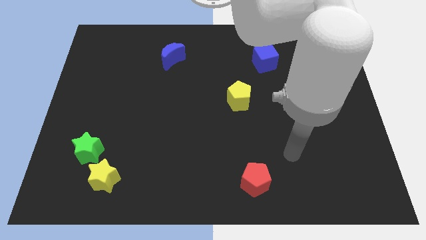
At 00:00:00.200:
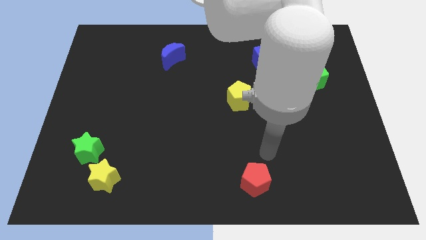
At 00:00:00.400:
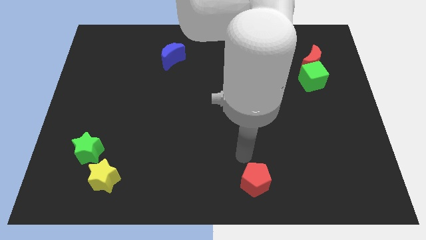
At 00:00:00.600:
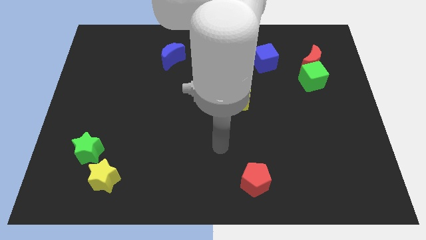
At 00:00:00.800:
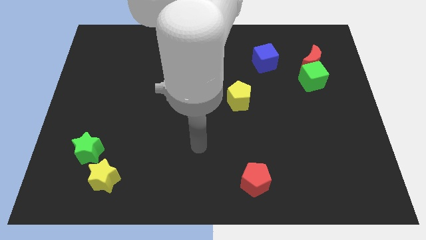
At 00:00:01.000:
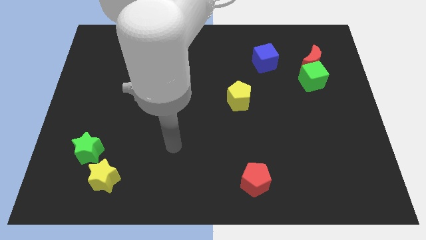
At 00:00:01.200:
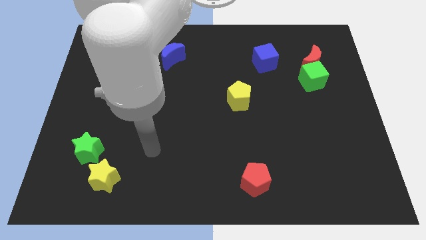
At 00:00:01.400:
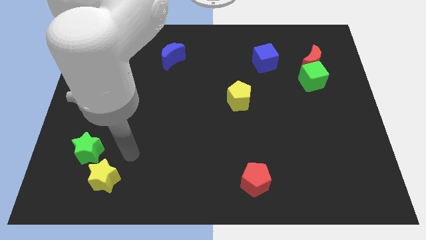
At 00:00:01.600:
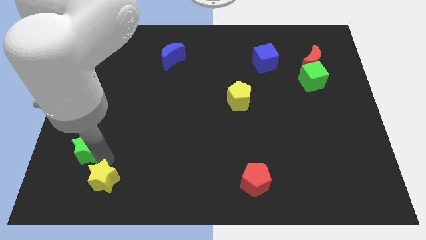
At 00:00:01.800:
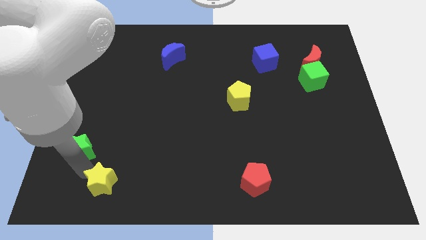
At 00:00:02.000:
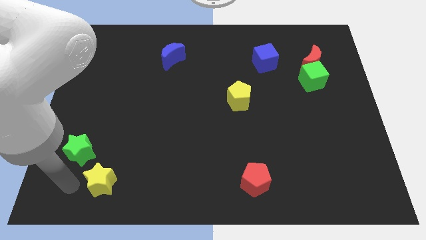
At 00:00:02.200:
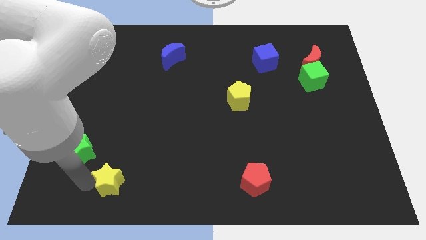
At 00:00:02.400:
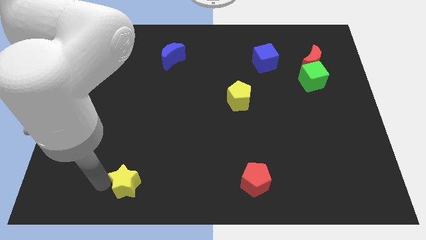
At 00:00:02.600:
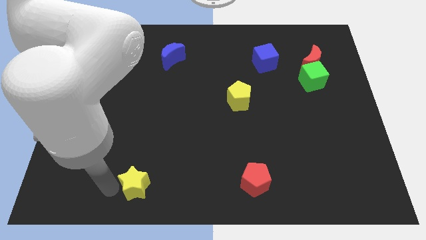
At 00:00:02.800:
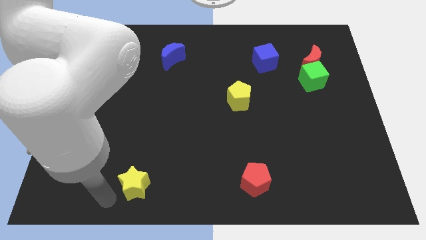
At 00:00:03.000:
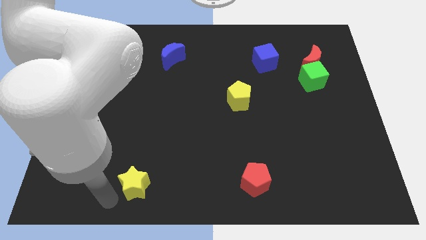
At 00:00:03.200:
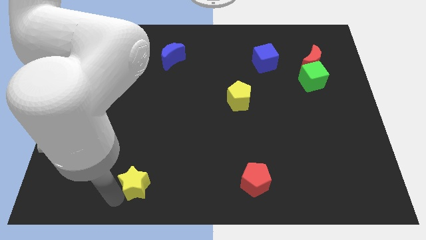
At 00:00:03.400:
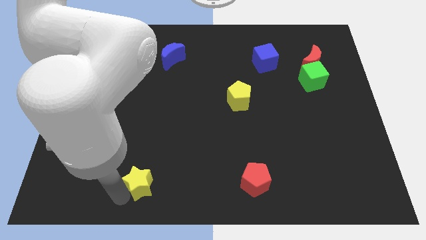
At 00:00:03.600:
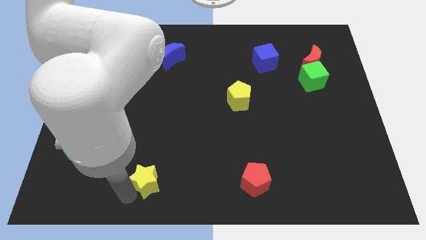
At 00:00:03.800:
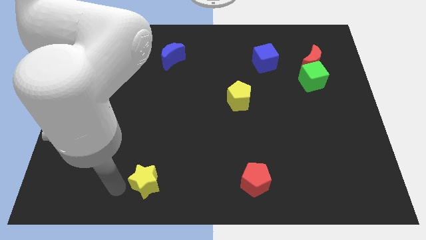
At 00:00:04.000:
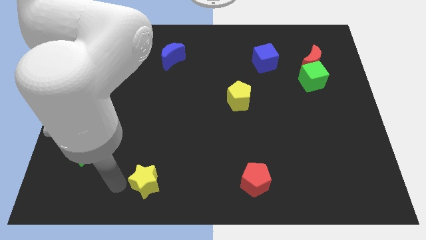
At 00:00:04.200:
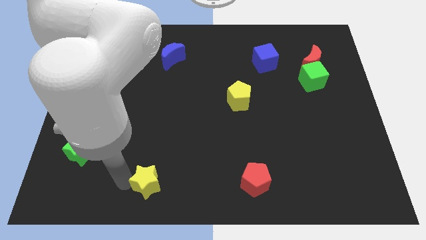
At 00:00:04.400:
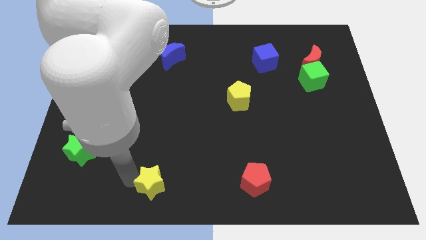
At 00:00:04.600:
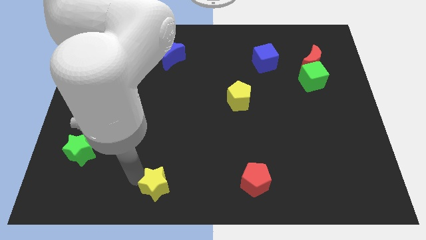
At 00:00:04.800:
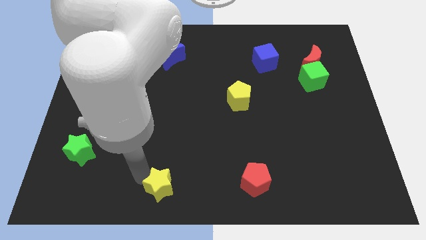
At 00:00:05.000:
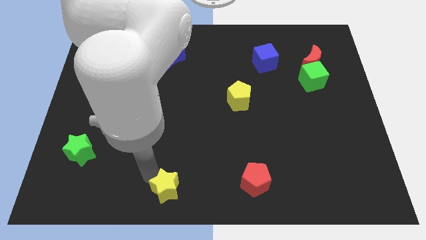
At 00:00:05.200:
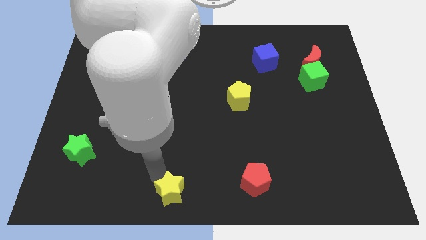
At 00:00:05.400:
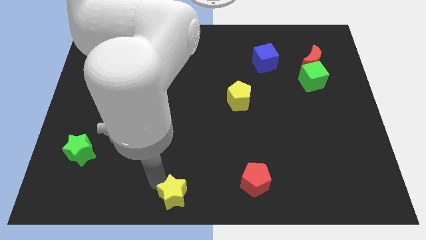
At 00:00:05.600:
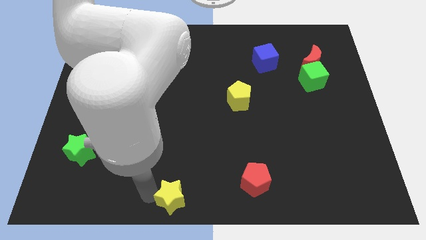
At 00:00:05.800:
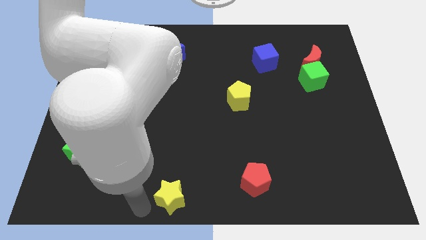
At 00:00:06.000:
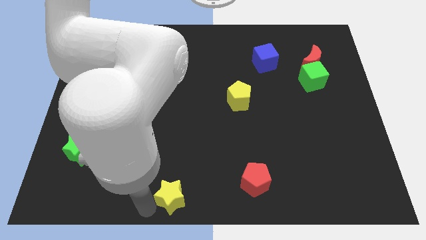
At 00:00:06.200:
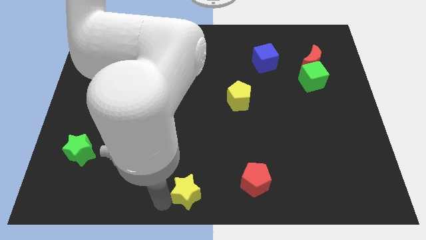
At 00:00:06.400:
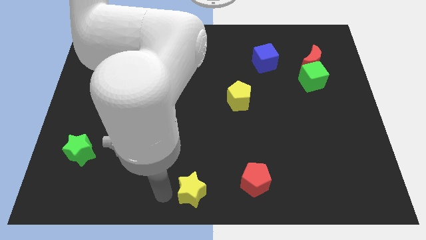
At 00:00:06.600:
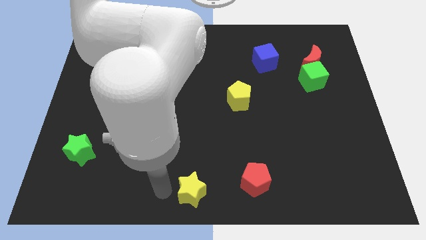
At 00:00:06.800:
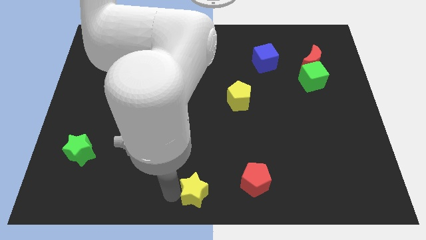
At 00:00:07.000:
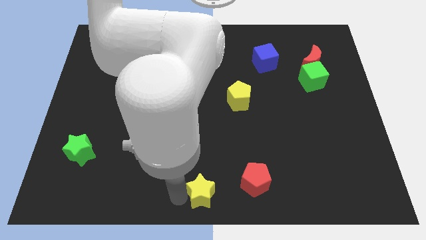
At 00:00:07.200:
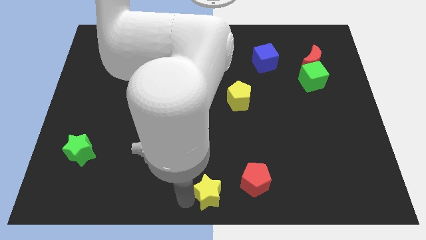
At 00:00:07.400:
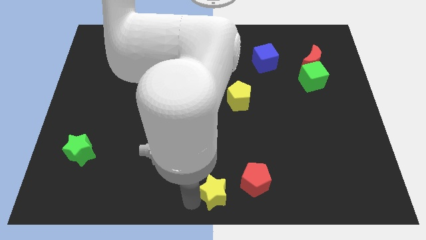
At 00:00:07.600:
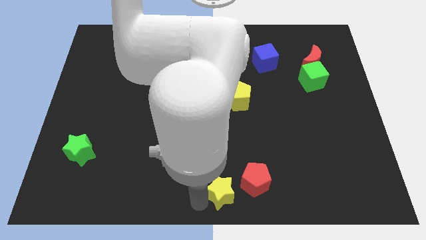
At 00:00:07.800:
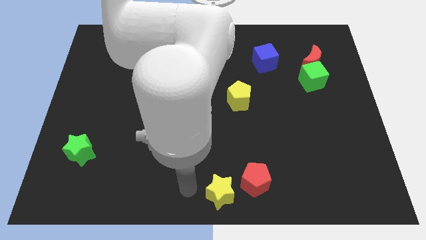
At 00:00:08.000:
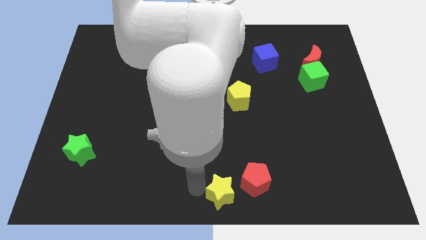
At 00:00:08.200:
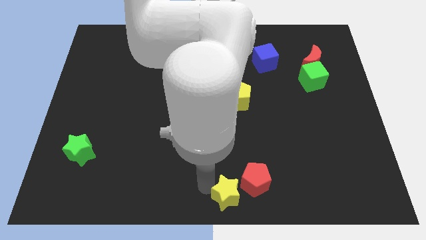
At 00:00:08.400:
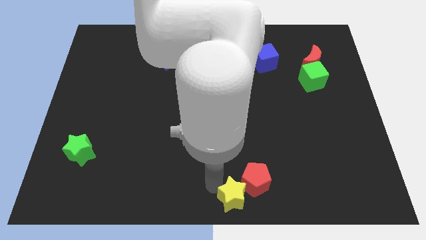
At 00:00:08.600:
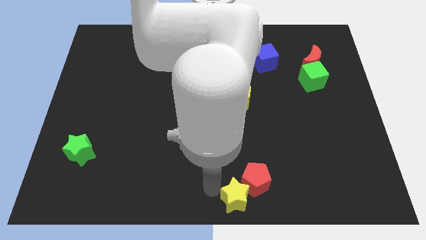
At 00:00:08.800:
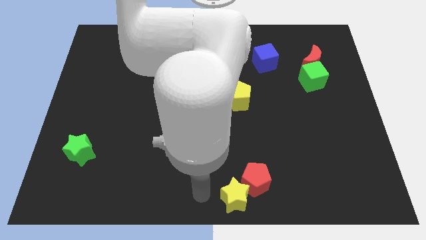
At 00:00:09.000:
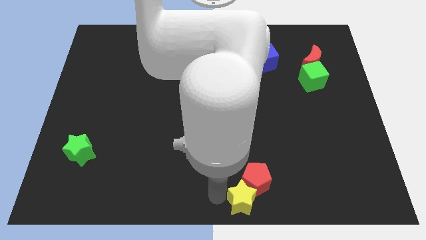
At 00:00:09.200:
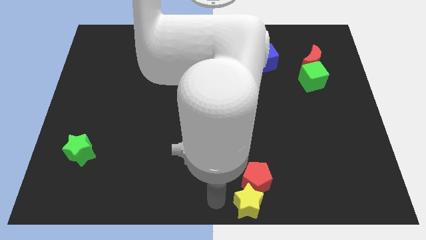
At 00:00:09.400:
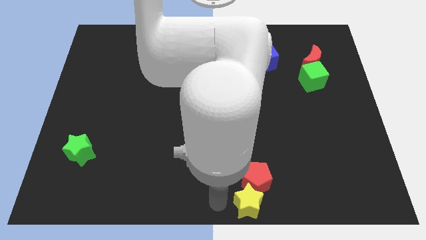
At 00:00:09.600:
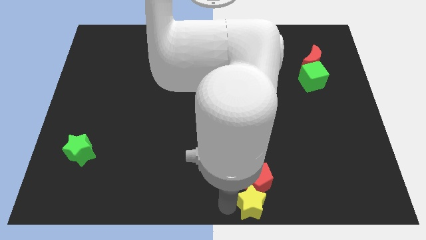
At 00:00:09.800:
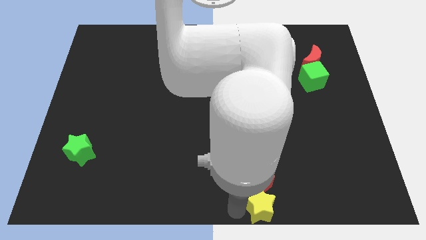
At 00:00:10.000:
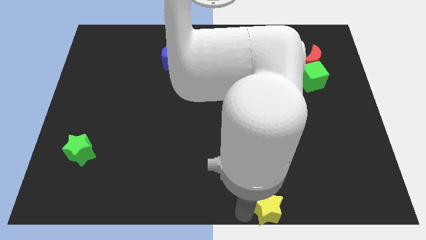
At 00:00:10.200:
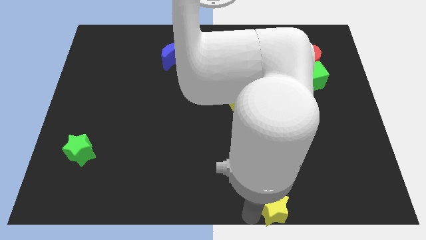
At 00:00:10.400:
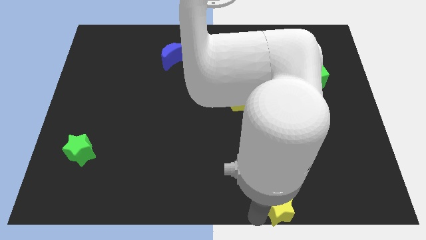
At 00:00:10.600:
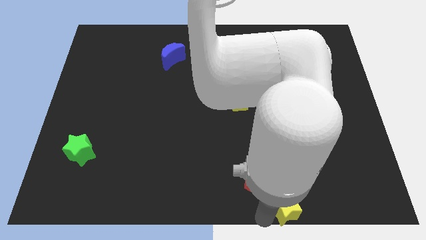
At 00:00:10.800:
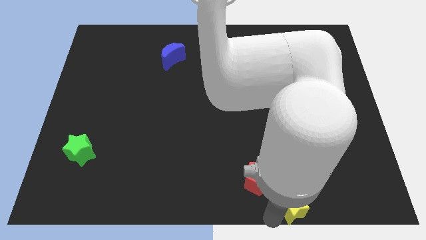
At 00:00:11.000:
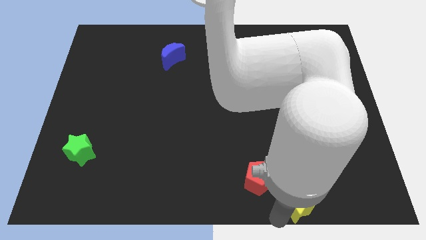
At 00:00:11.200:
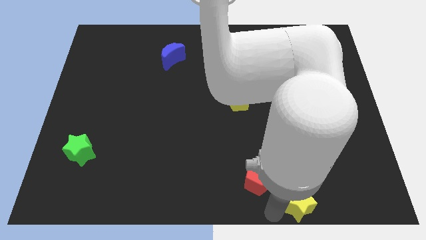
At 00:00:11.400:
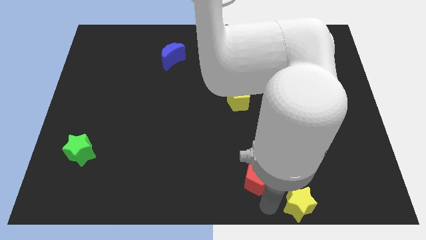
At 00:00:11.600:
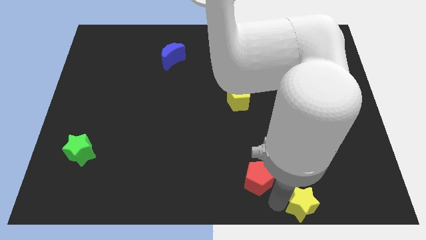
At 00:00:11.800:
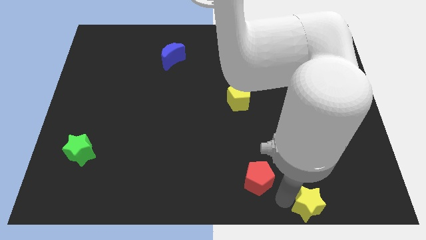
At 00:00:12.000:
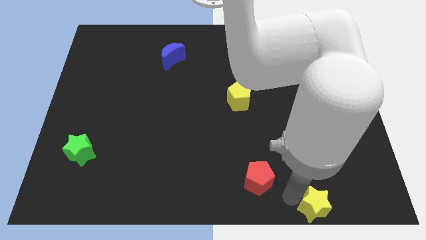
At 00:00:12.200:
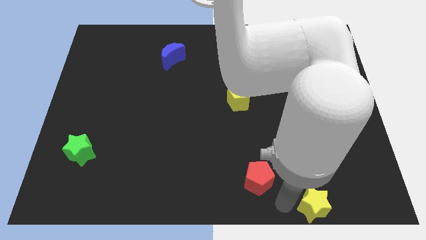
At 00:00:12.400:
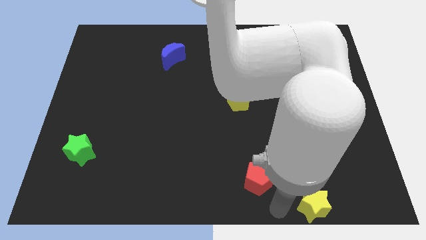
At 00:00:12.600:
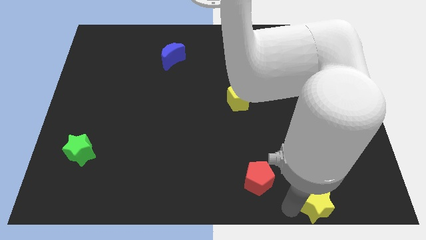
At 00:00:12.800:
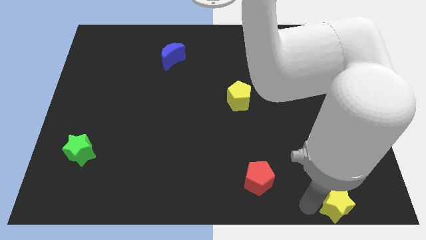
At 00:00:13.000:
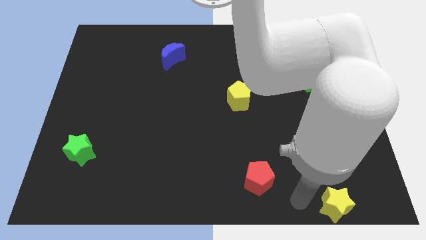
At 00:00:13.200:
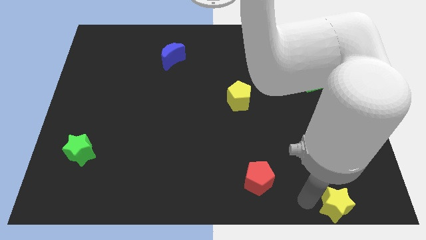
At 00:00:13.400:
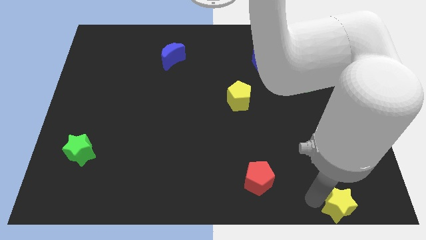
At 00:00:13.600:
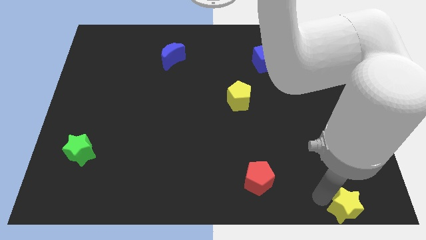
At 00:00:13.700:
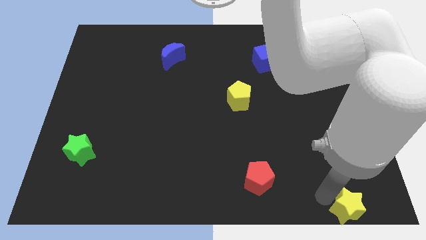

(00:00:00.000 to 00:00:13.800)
slide the yellow star to the bottom right
